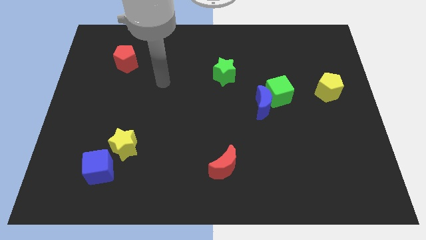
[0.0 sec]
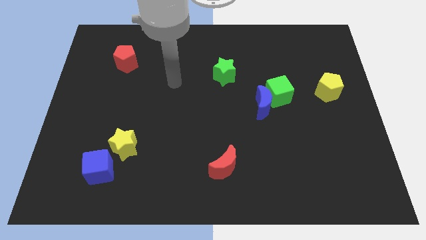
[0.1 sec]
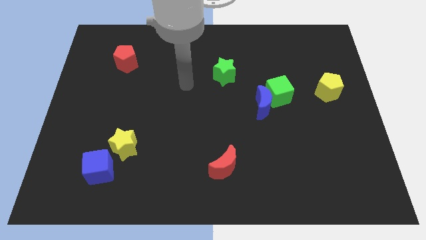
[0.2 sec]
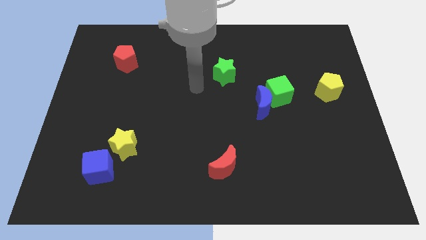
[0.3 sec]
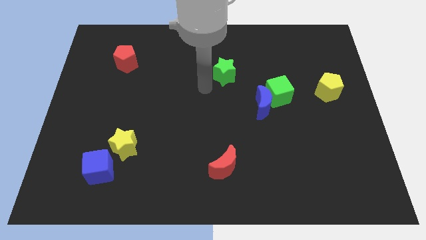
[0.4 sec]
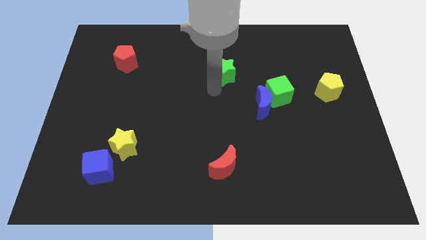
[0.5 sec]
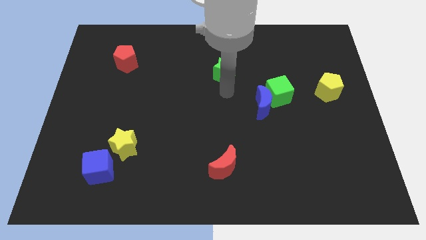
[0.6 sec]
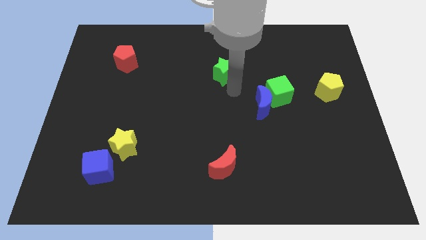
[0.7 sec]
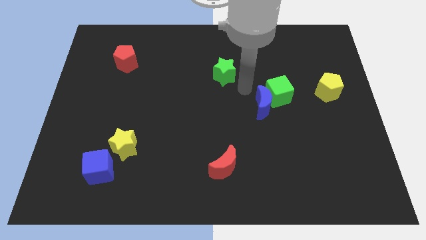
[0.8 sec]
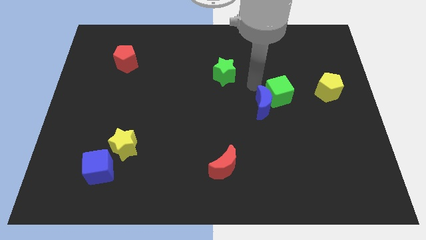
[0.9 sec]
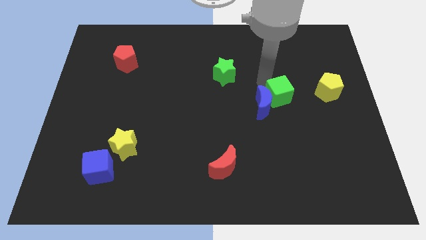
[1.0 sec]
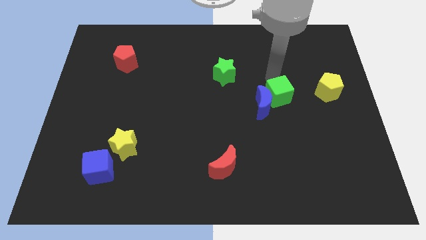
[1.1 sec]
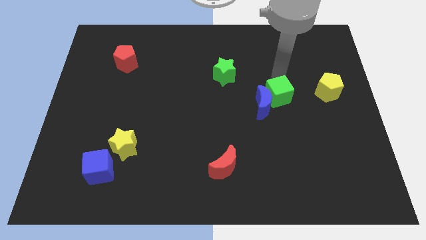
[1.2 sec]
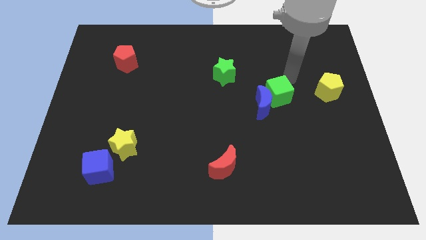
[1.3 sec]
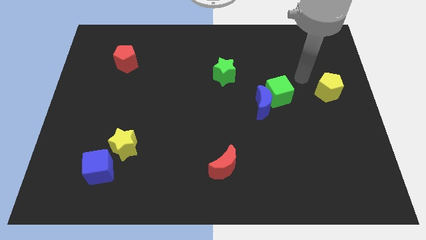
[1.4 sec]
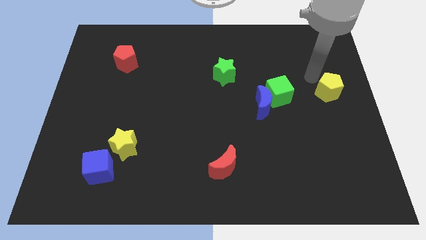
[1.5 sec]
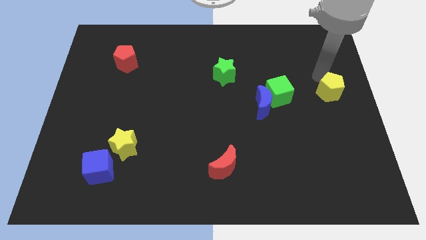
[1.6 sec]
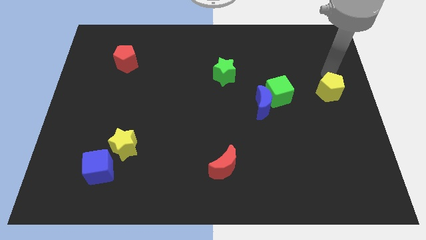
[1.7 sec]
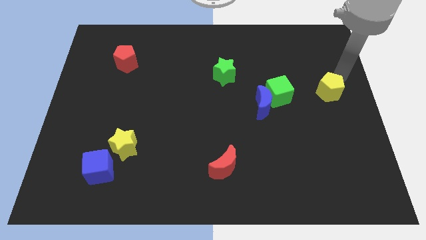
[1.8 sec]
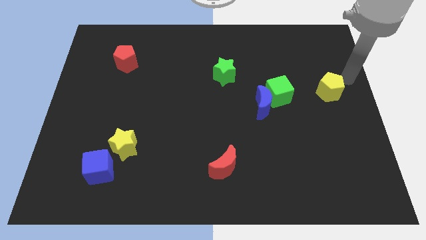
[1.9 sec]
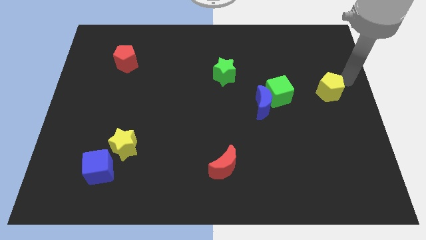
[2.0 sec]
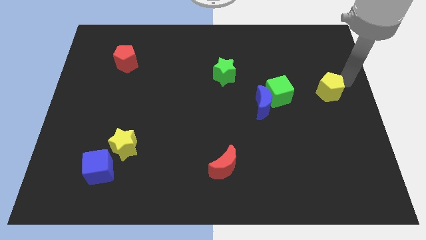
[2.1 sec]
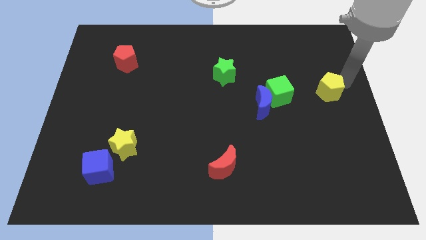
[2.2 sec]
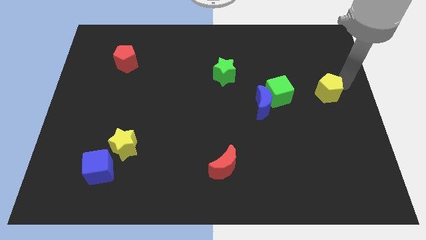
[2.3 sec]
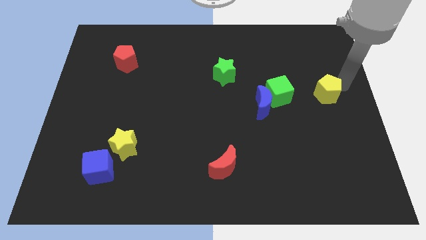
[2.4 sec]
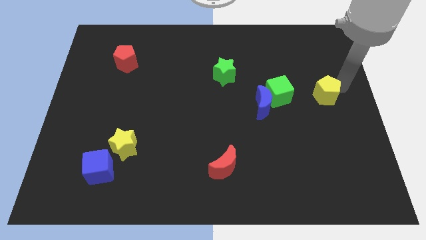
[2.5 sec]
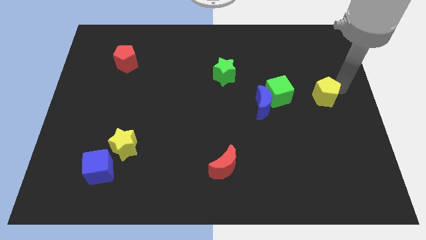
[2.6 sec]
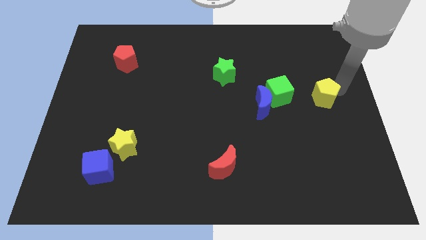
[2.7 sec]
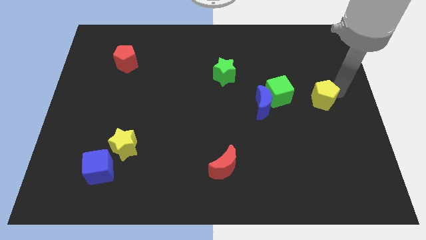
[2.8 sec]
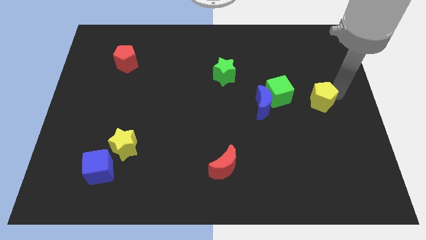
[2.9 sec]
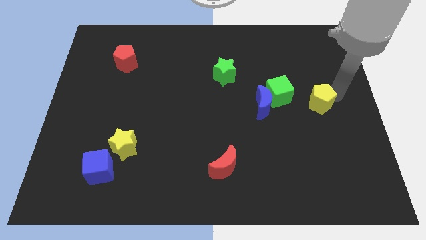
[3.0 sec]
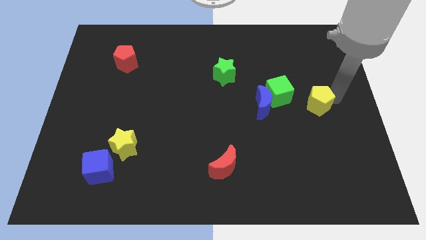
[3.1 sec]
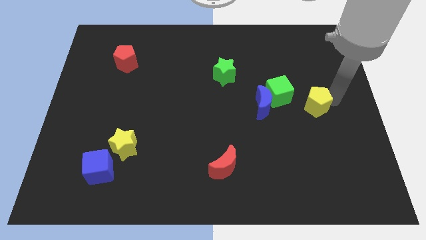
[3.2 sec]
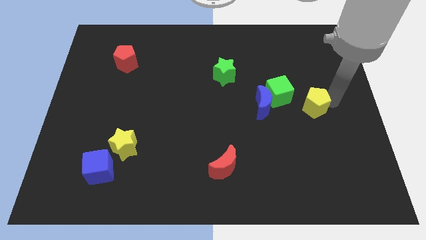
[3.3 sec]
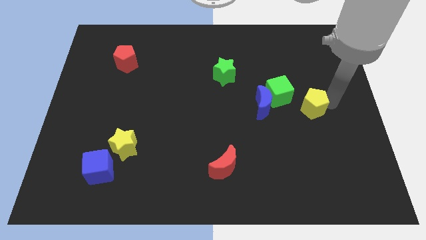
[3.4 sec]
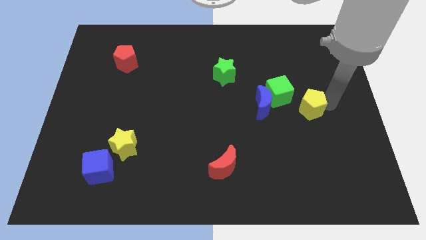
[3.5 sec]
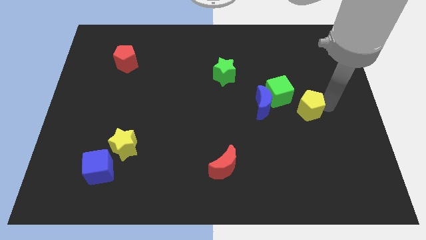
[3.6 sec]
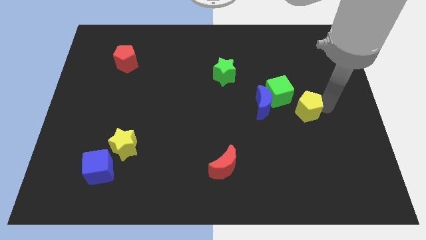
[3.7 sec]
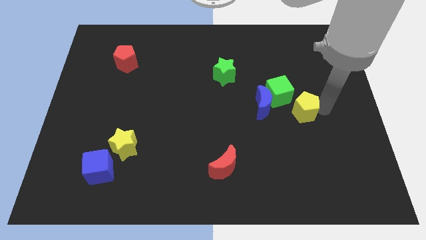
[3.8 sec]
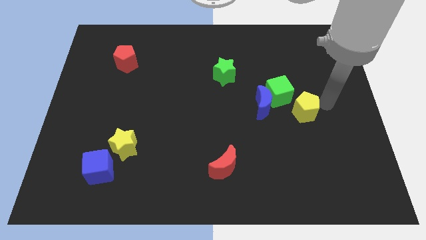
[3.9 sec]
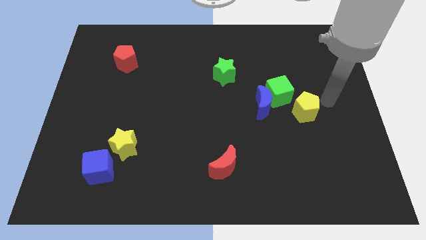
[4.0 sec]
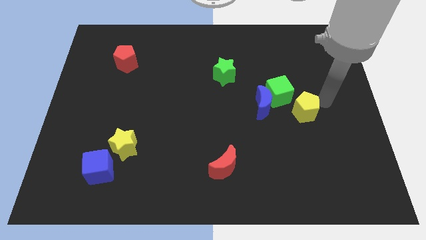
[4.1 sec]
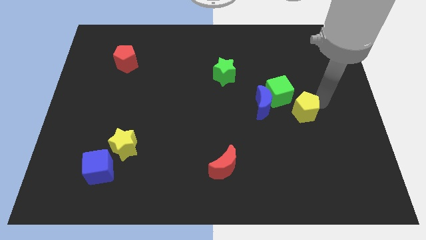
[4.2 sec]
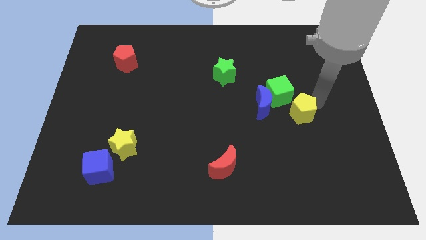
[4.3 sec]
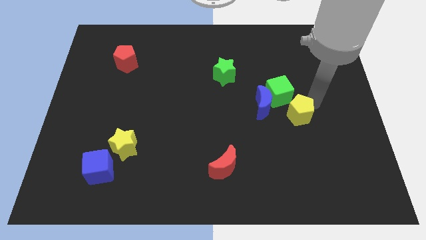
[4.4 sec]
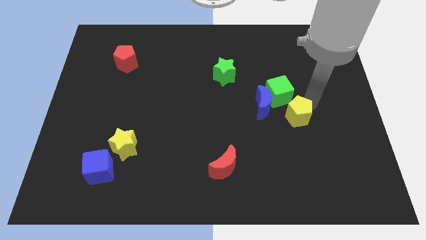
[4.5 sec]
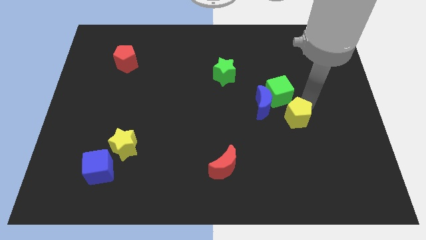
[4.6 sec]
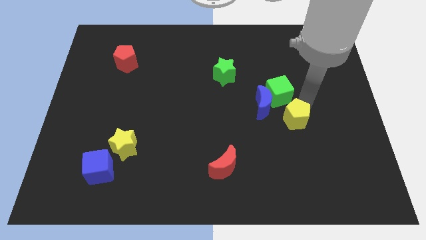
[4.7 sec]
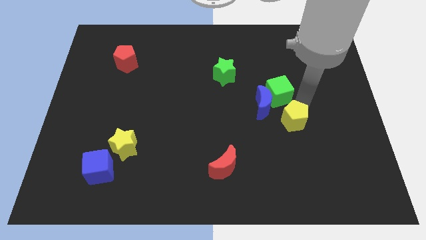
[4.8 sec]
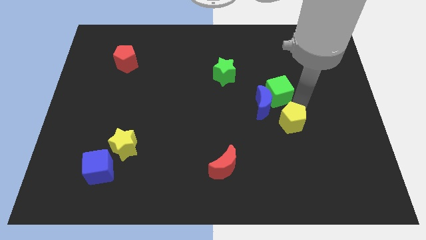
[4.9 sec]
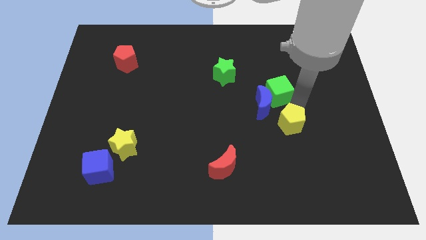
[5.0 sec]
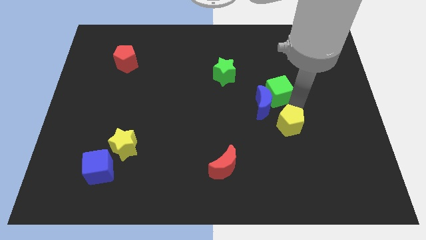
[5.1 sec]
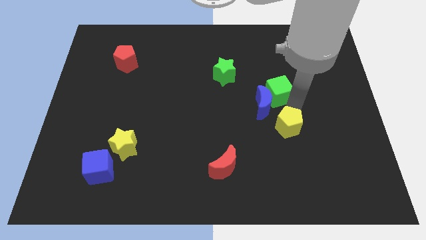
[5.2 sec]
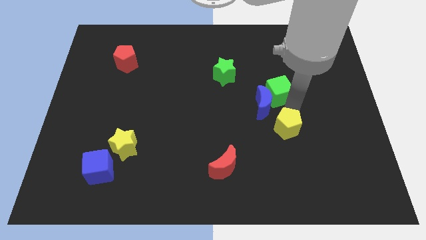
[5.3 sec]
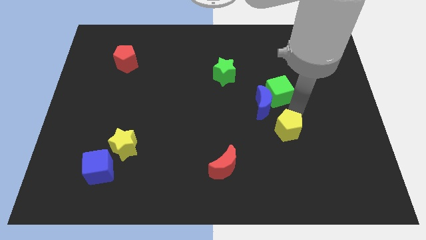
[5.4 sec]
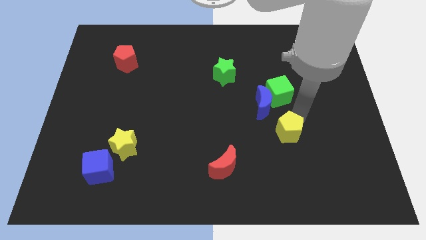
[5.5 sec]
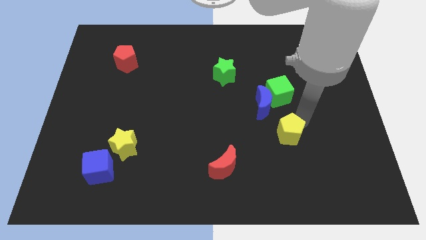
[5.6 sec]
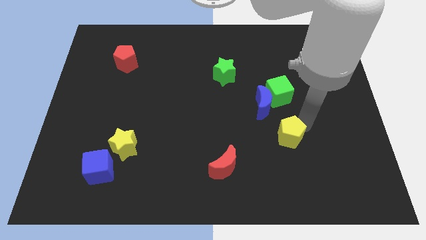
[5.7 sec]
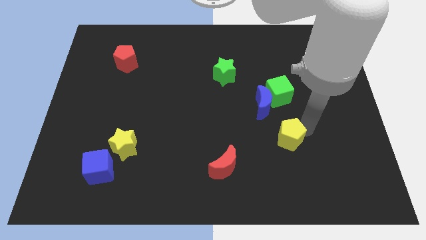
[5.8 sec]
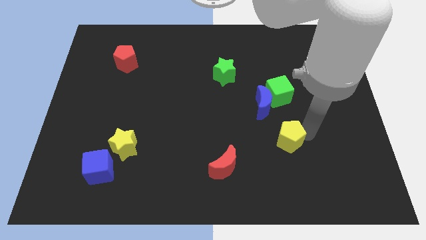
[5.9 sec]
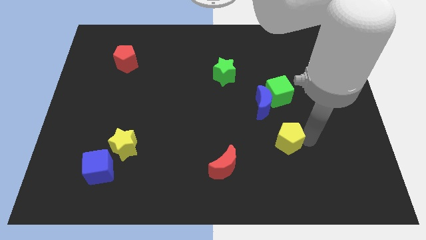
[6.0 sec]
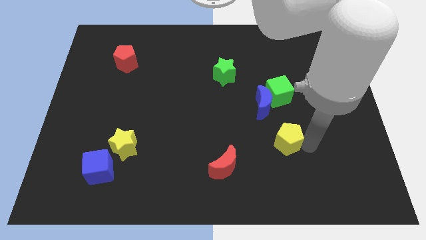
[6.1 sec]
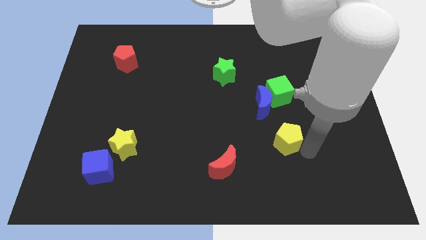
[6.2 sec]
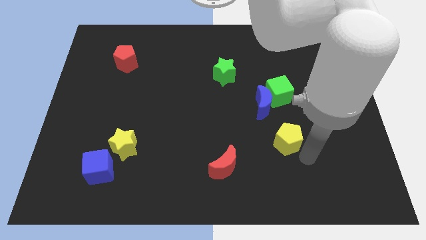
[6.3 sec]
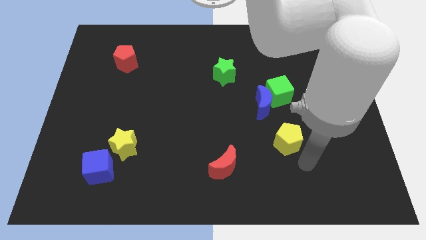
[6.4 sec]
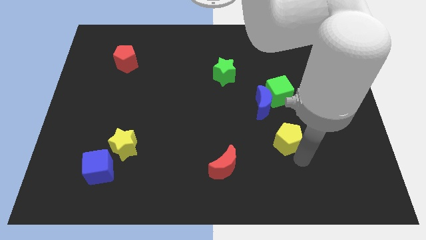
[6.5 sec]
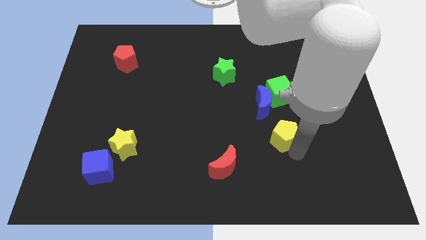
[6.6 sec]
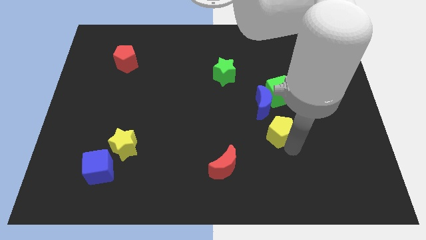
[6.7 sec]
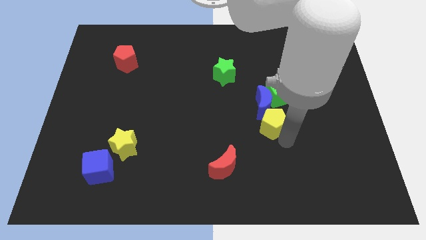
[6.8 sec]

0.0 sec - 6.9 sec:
put the yellow pentagon diagonally down and to the left of the green cube
